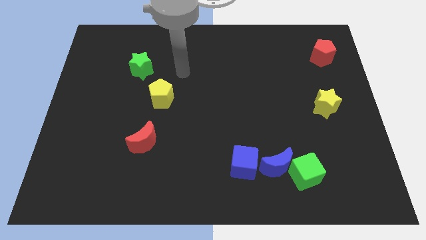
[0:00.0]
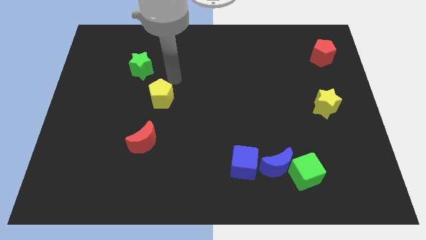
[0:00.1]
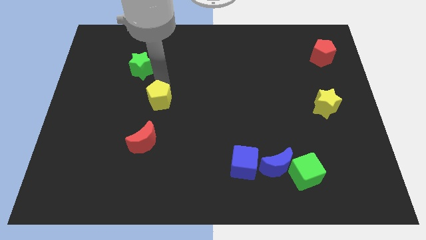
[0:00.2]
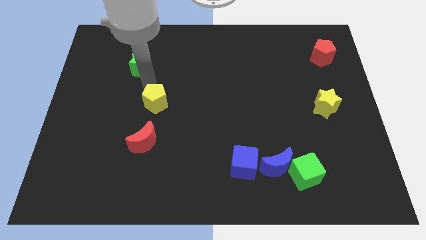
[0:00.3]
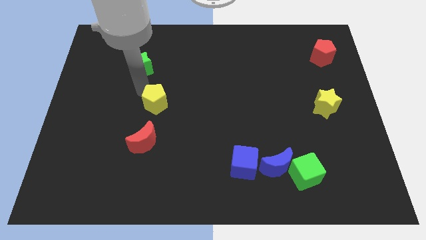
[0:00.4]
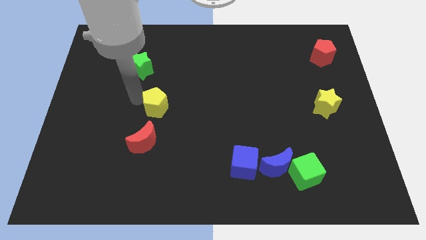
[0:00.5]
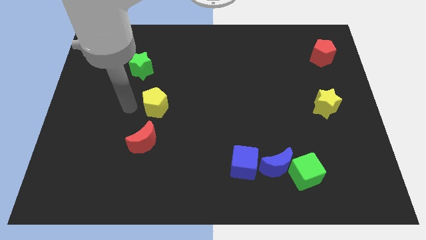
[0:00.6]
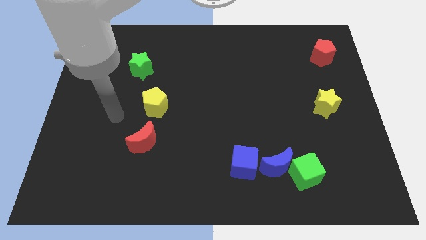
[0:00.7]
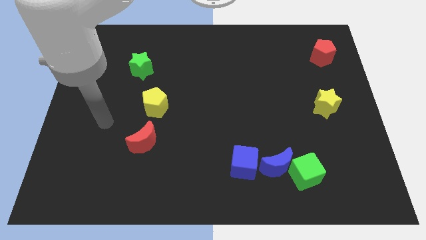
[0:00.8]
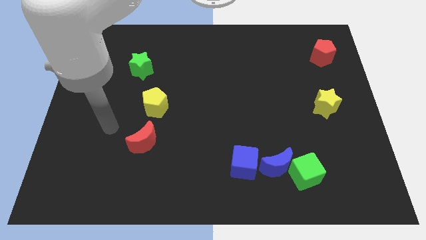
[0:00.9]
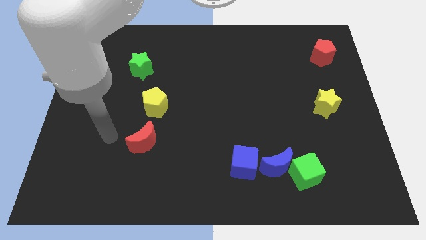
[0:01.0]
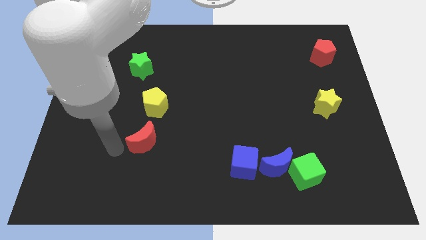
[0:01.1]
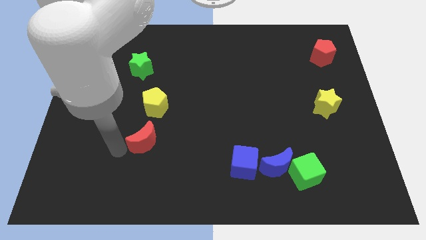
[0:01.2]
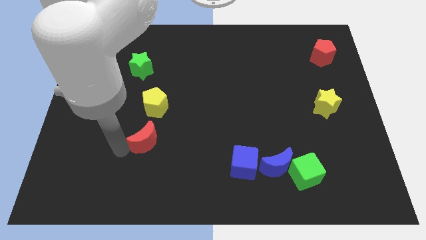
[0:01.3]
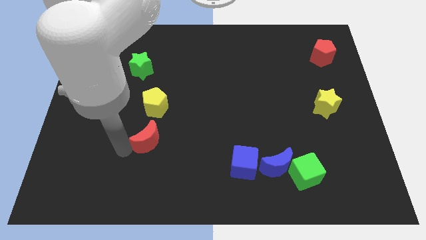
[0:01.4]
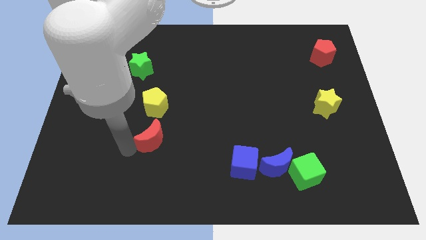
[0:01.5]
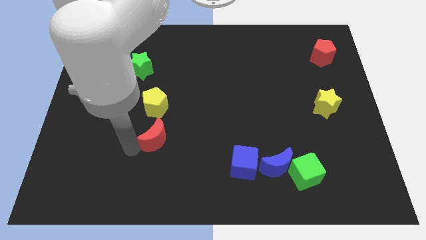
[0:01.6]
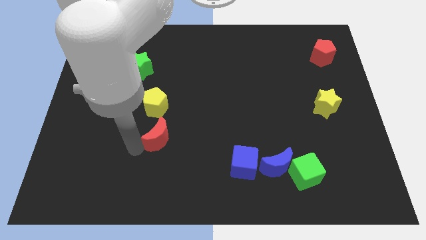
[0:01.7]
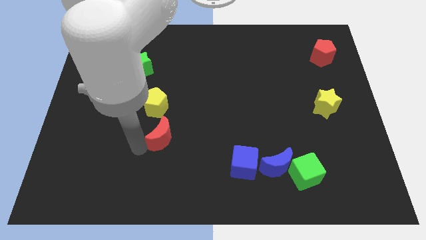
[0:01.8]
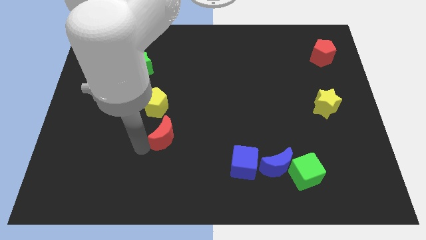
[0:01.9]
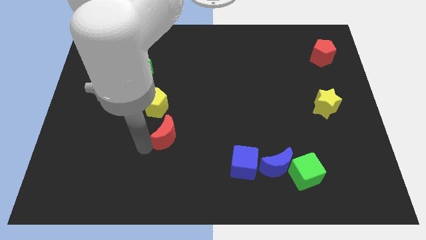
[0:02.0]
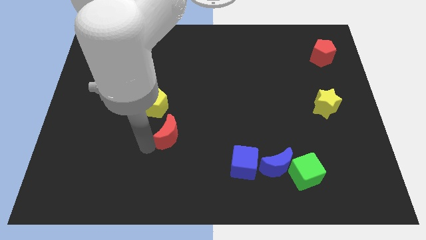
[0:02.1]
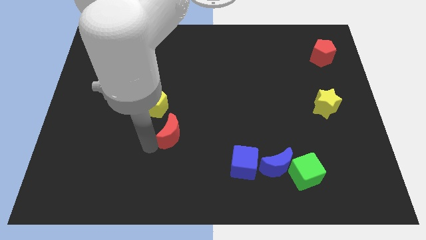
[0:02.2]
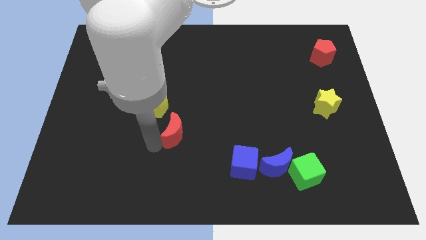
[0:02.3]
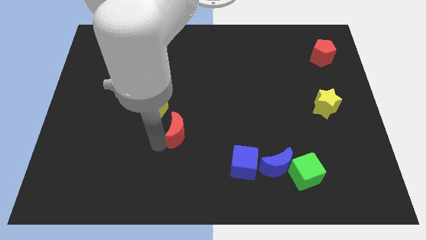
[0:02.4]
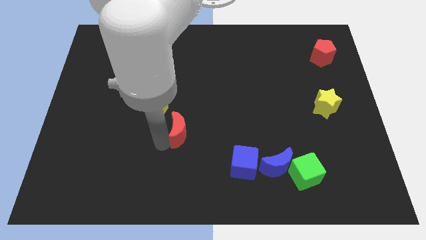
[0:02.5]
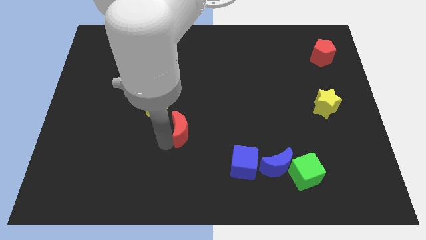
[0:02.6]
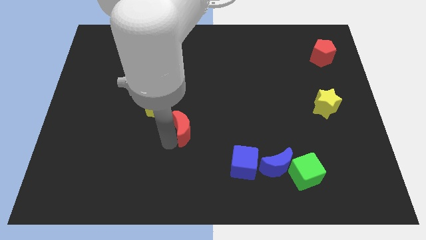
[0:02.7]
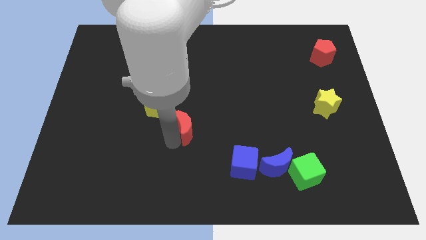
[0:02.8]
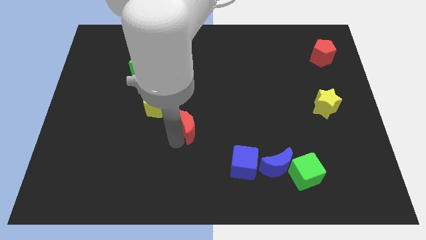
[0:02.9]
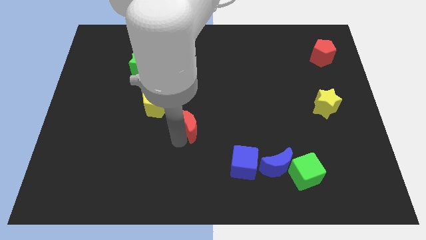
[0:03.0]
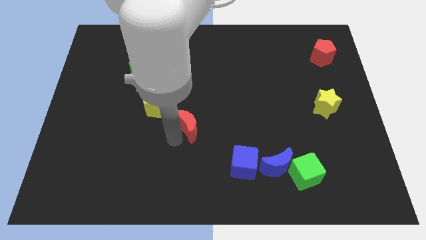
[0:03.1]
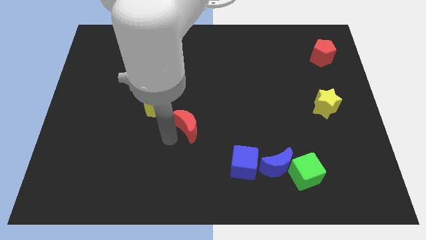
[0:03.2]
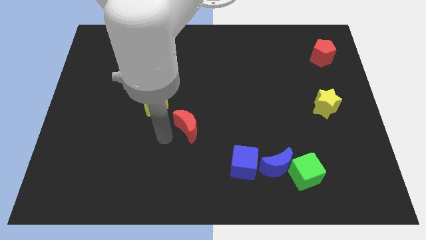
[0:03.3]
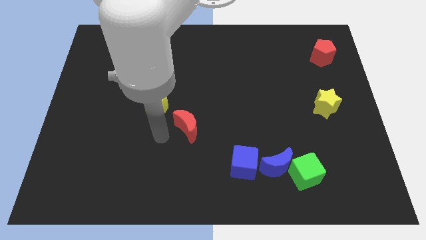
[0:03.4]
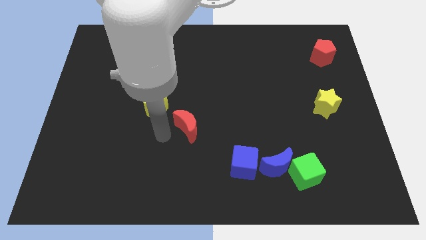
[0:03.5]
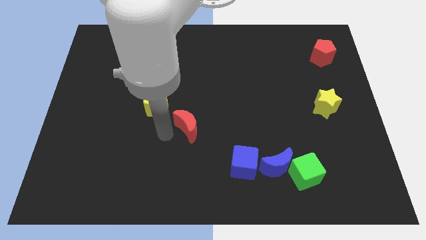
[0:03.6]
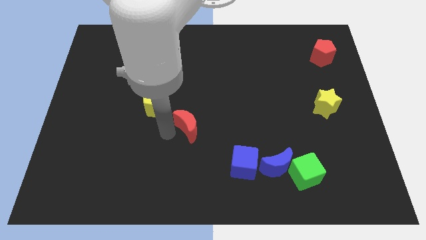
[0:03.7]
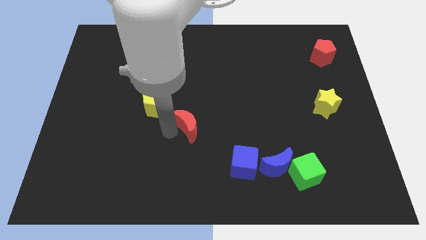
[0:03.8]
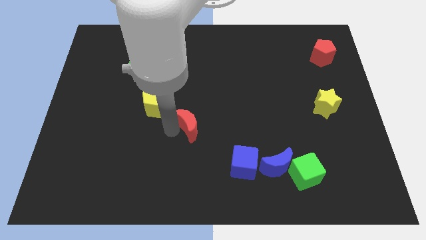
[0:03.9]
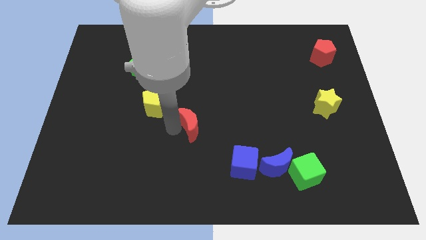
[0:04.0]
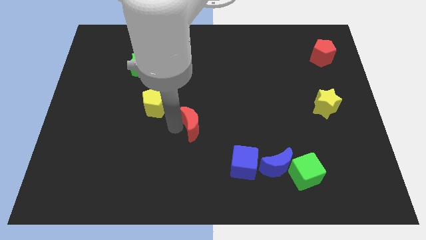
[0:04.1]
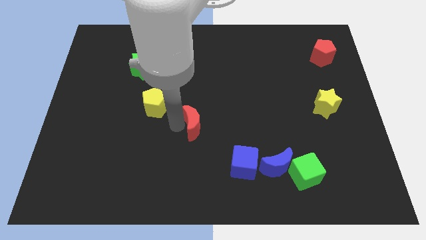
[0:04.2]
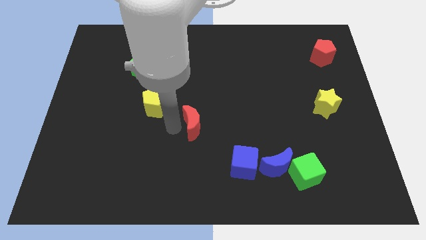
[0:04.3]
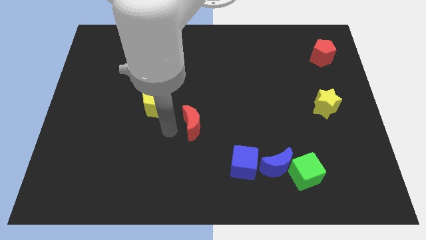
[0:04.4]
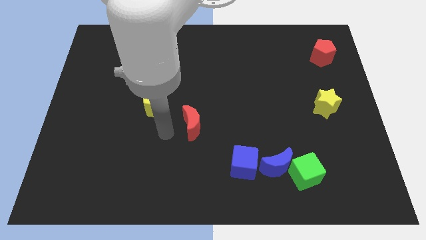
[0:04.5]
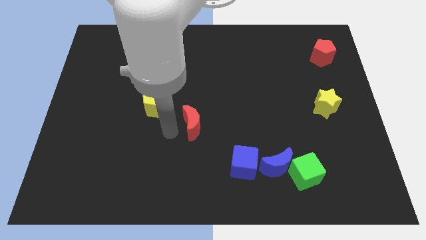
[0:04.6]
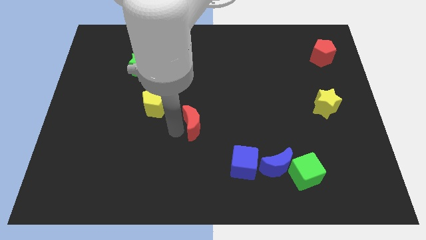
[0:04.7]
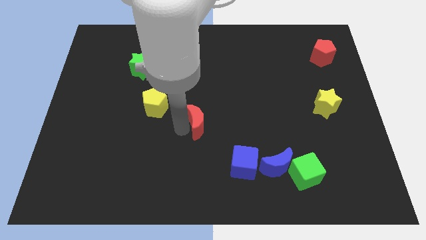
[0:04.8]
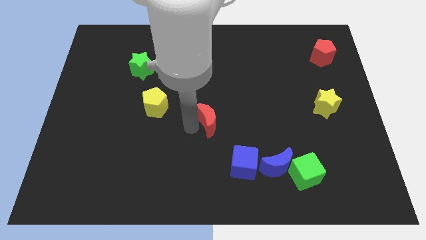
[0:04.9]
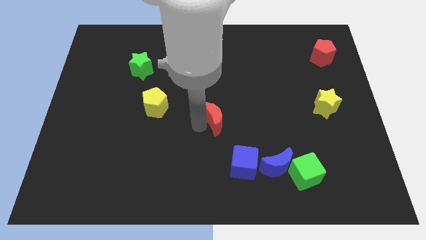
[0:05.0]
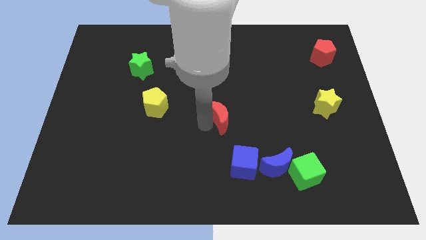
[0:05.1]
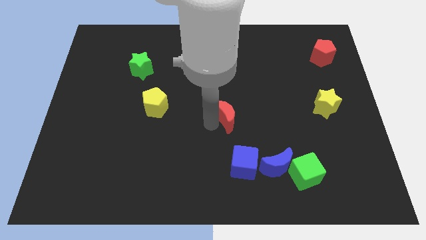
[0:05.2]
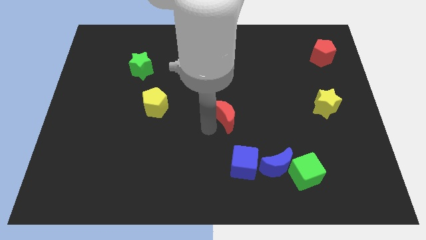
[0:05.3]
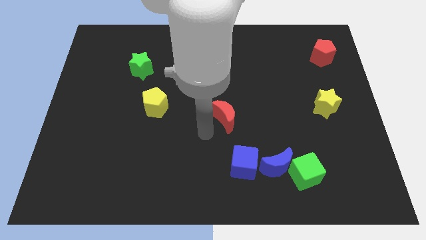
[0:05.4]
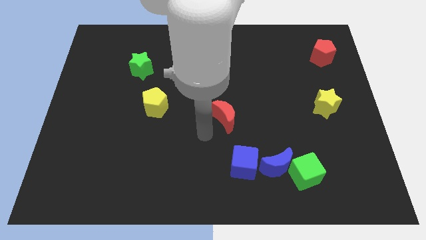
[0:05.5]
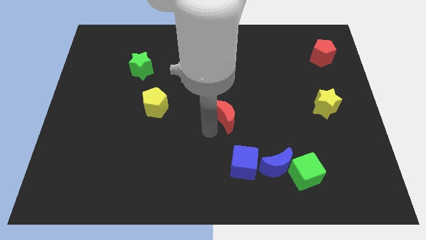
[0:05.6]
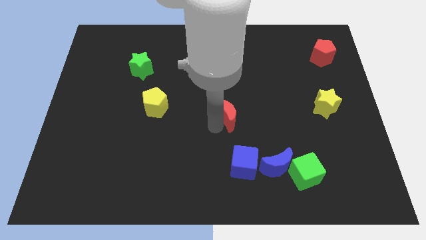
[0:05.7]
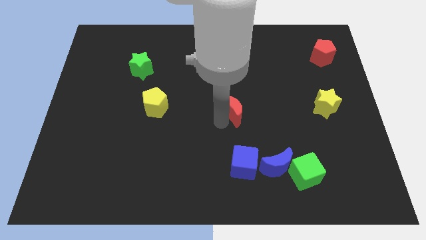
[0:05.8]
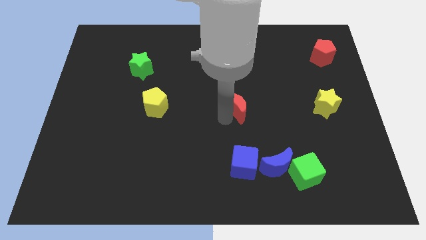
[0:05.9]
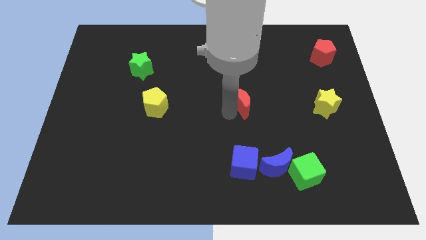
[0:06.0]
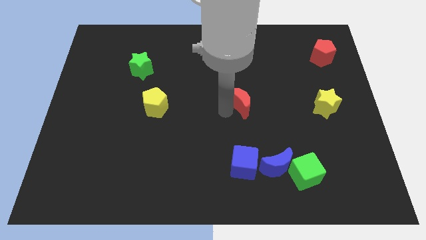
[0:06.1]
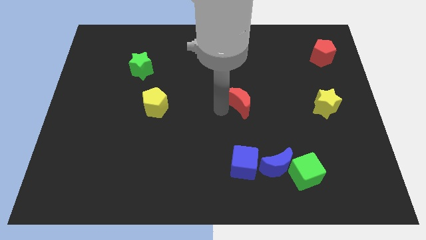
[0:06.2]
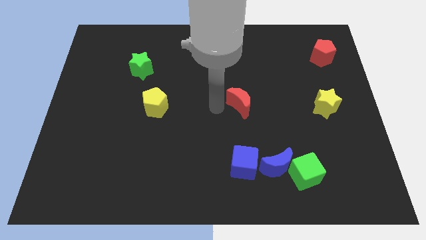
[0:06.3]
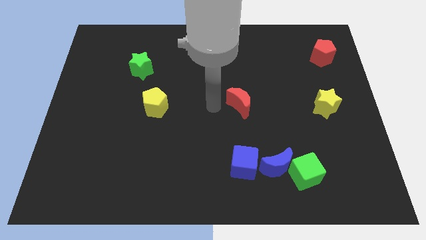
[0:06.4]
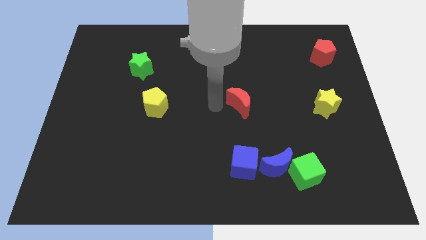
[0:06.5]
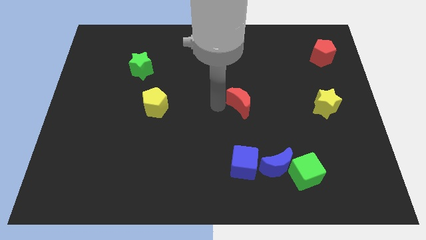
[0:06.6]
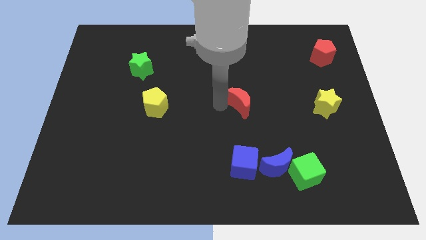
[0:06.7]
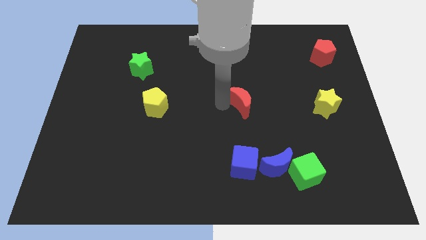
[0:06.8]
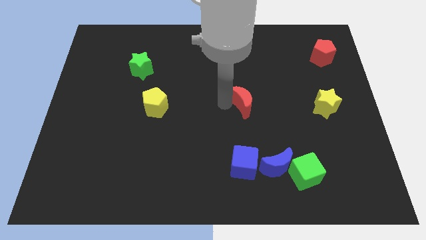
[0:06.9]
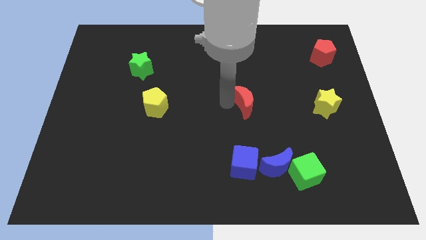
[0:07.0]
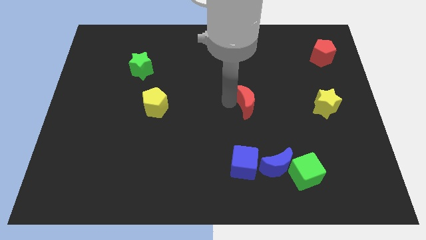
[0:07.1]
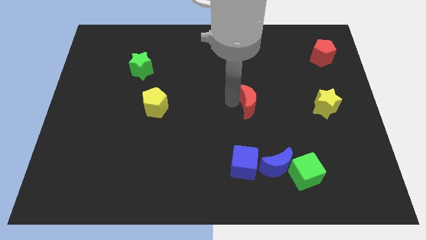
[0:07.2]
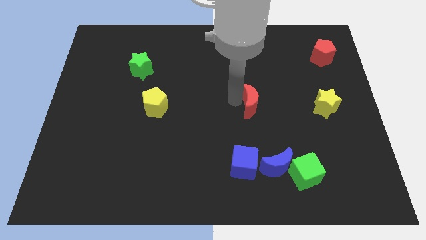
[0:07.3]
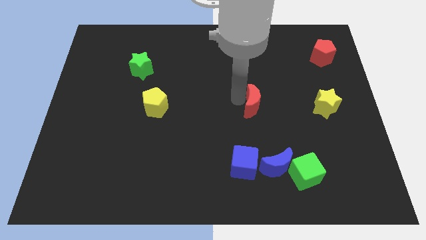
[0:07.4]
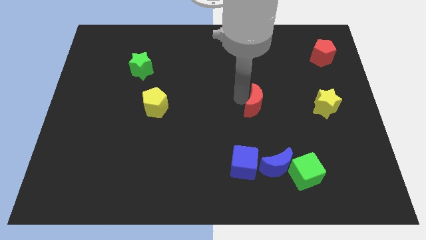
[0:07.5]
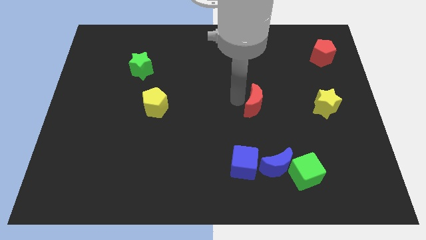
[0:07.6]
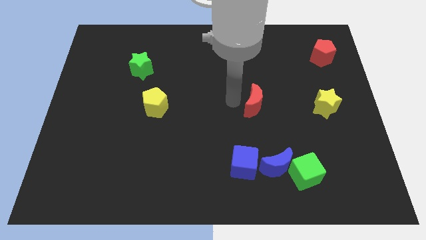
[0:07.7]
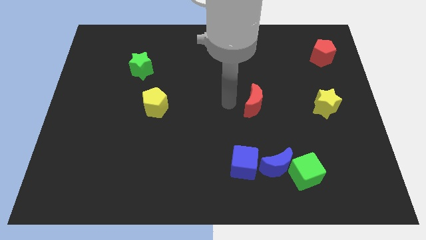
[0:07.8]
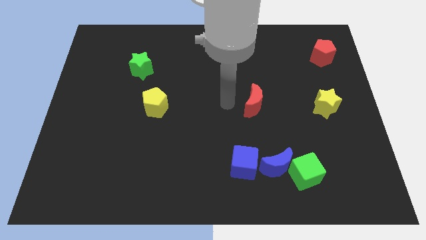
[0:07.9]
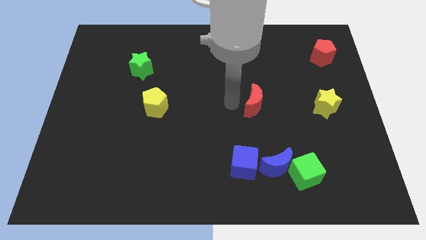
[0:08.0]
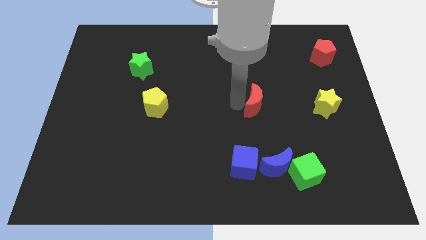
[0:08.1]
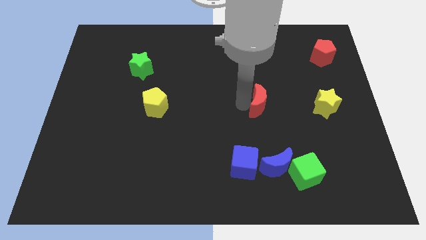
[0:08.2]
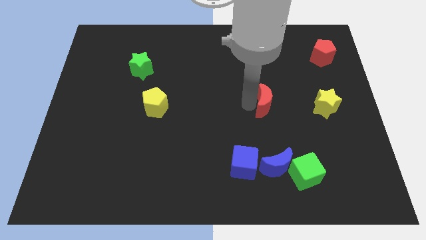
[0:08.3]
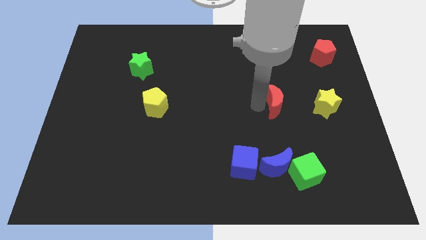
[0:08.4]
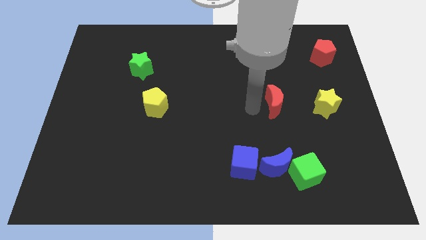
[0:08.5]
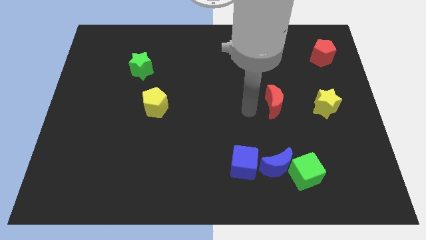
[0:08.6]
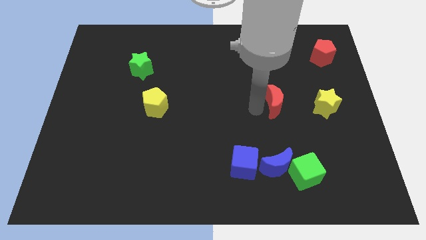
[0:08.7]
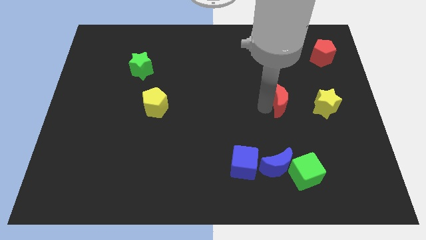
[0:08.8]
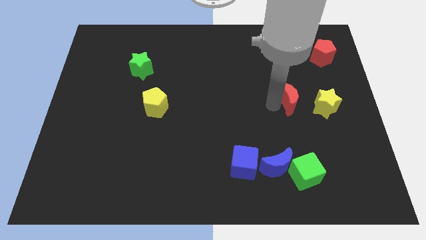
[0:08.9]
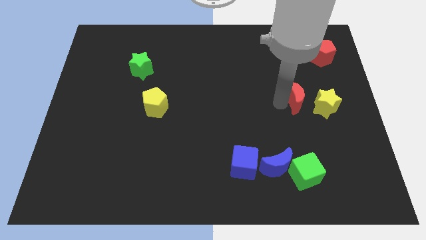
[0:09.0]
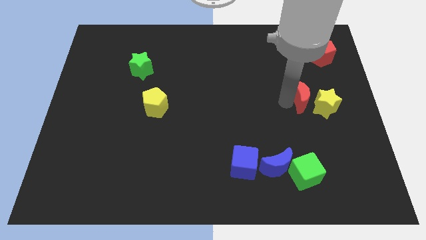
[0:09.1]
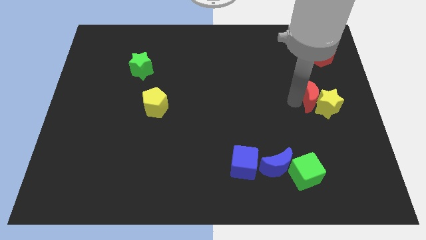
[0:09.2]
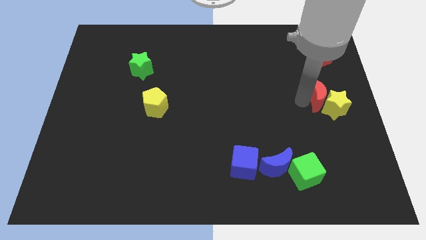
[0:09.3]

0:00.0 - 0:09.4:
put the red moon to the right side
